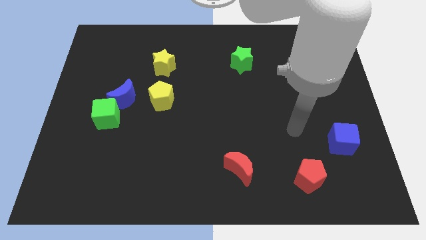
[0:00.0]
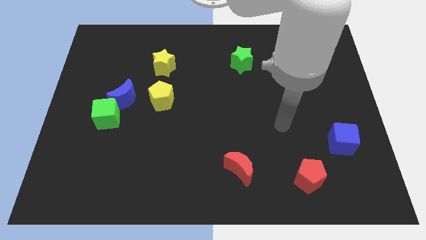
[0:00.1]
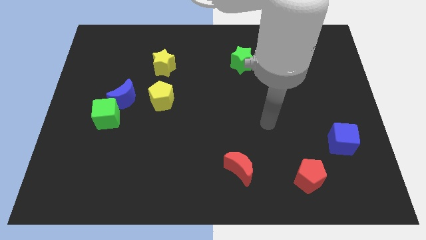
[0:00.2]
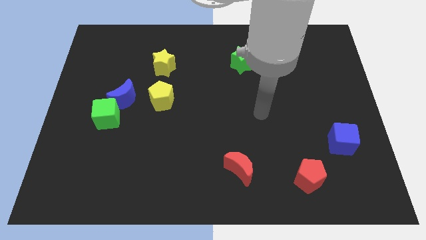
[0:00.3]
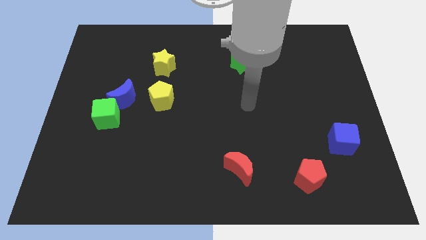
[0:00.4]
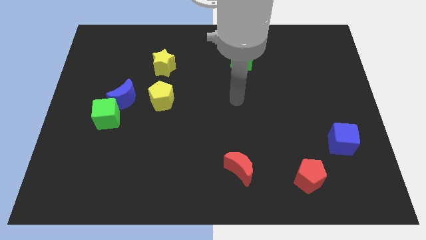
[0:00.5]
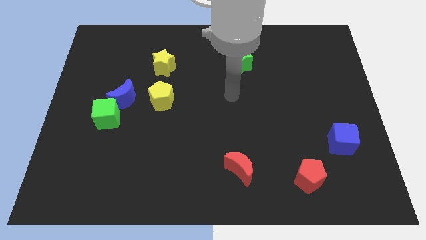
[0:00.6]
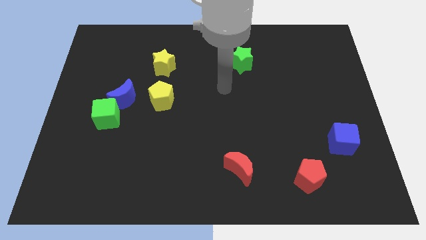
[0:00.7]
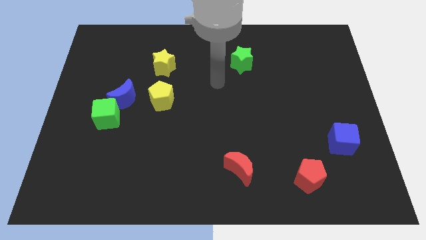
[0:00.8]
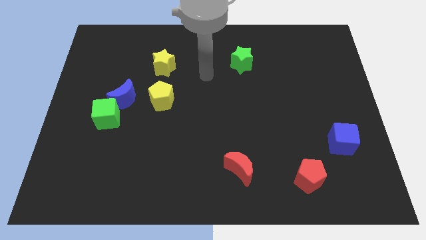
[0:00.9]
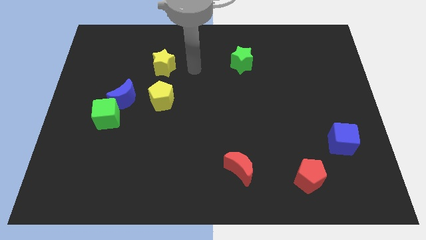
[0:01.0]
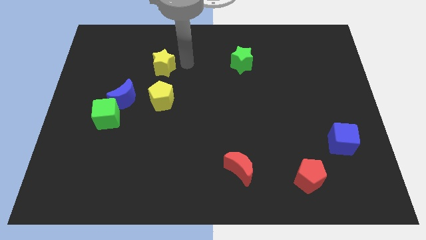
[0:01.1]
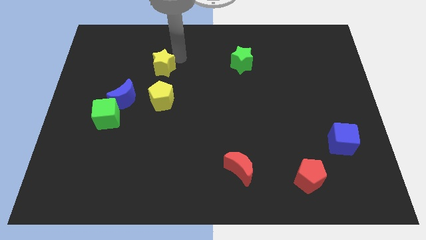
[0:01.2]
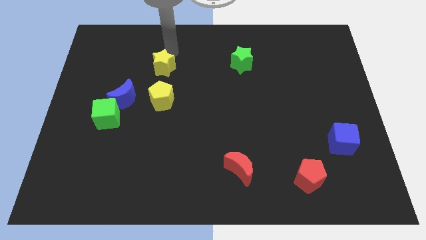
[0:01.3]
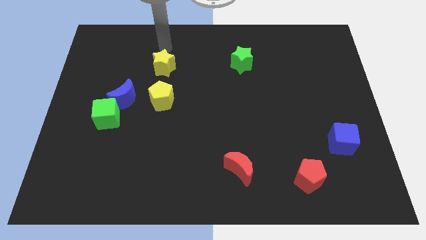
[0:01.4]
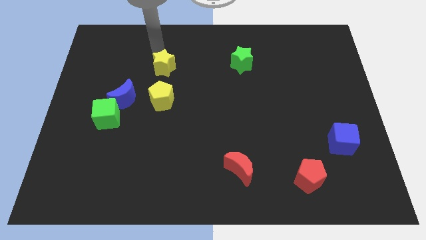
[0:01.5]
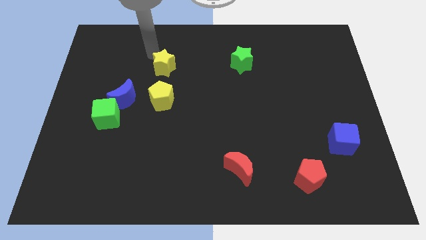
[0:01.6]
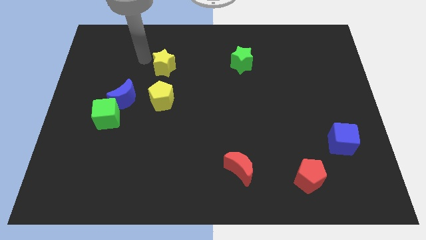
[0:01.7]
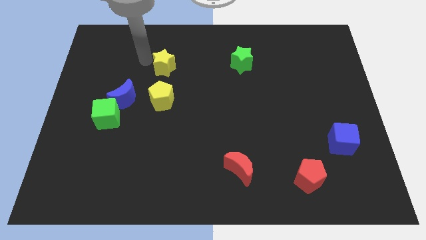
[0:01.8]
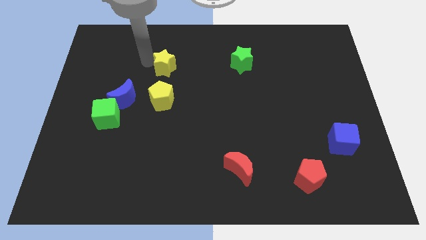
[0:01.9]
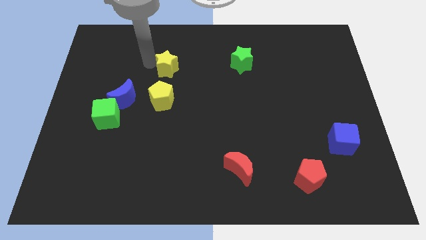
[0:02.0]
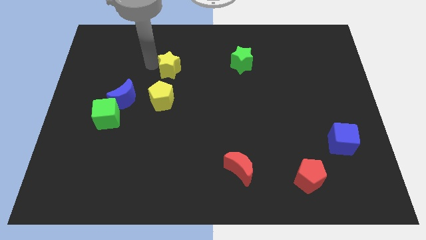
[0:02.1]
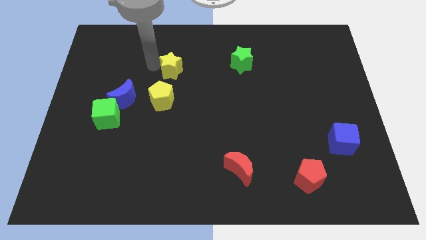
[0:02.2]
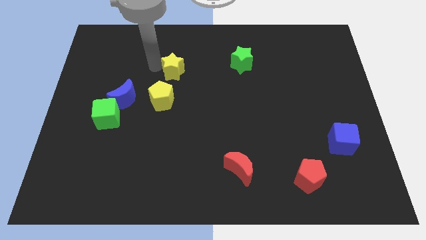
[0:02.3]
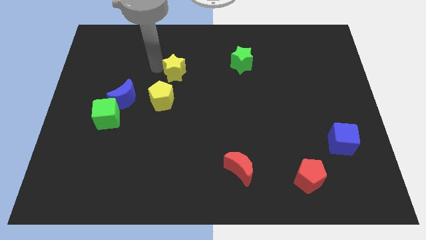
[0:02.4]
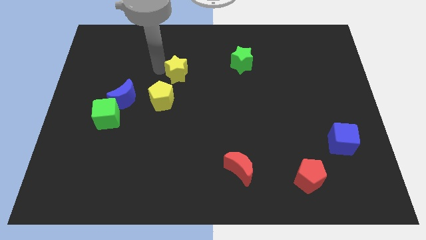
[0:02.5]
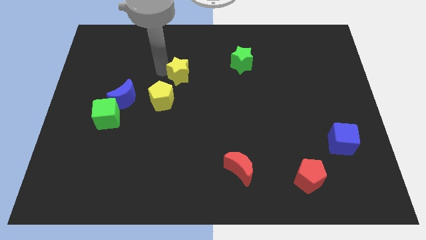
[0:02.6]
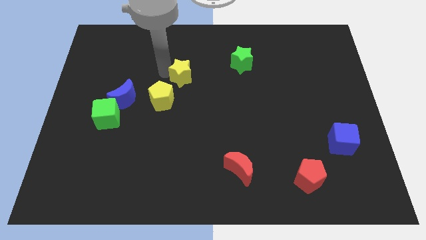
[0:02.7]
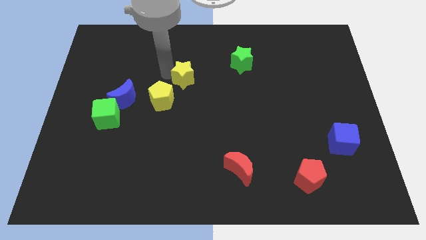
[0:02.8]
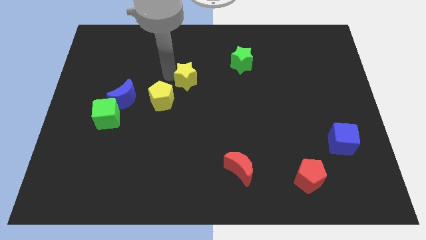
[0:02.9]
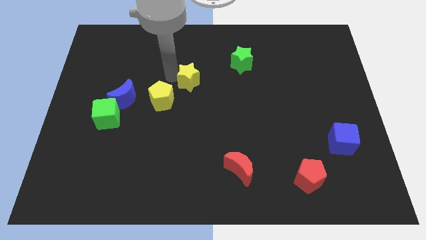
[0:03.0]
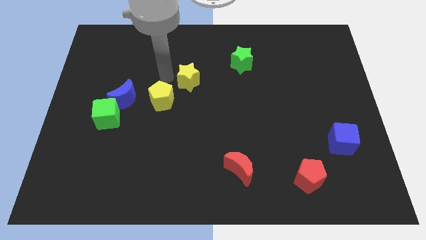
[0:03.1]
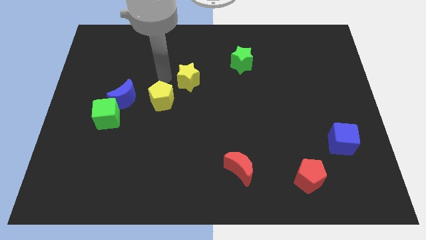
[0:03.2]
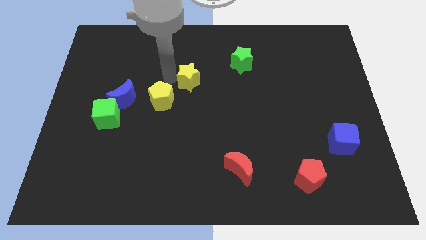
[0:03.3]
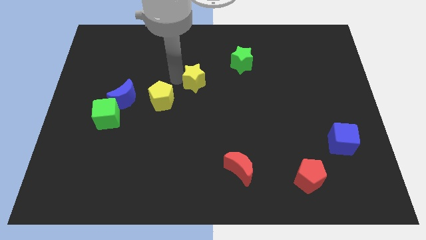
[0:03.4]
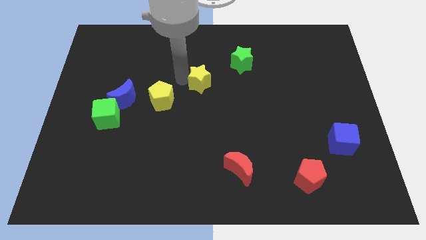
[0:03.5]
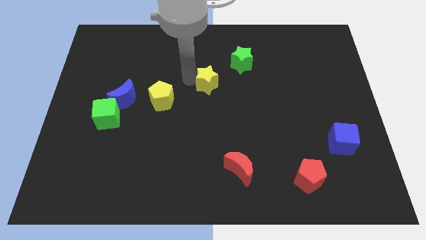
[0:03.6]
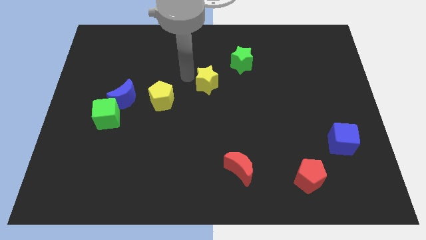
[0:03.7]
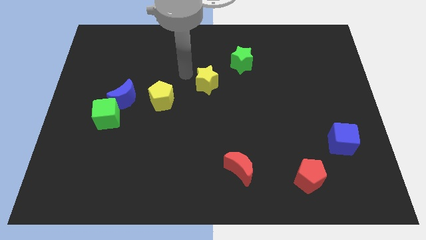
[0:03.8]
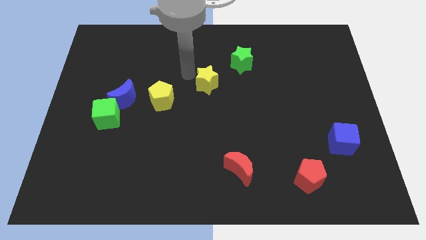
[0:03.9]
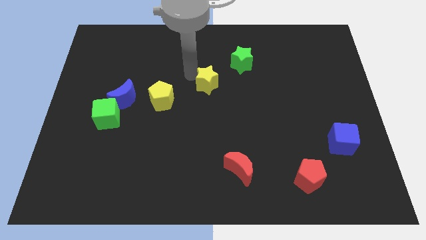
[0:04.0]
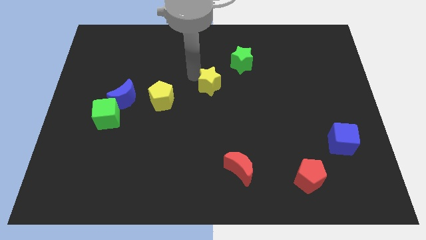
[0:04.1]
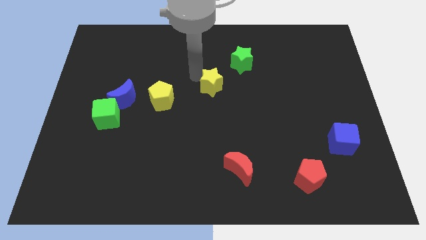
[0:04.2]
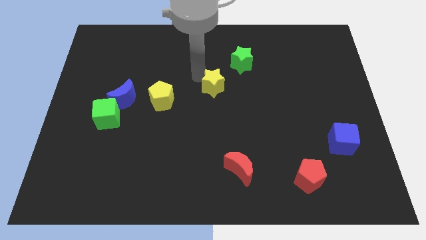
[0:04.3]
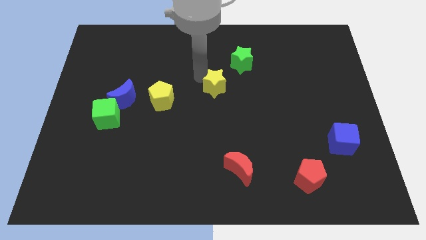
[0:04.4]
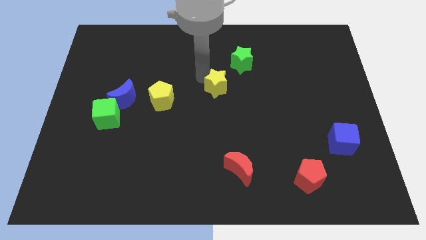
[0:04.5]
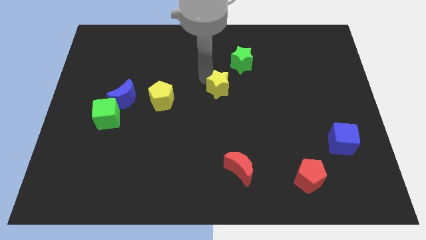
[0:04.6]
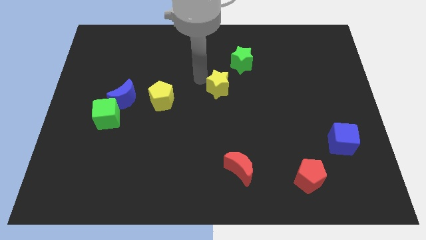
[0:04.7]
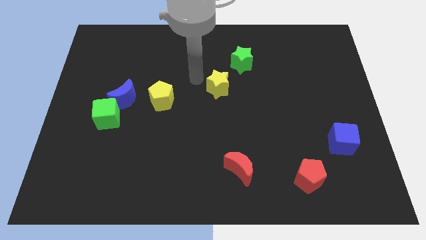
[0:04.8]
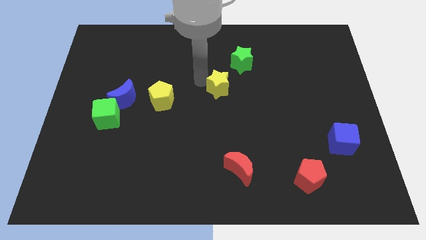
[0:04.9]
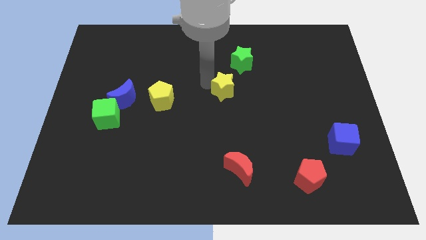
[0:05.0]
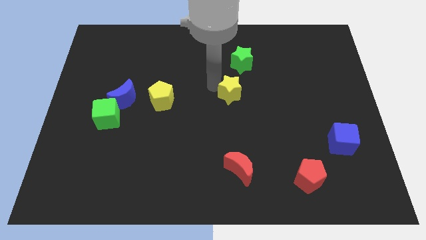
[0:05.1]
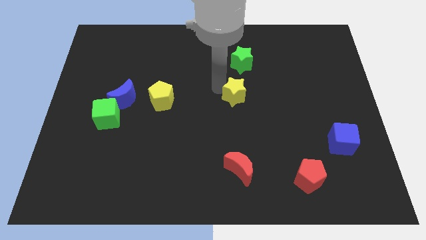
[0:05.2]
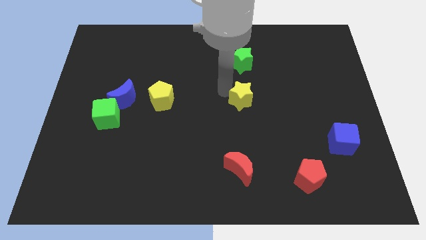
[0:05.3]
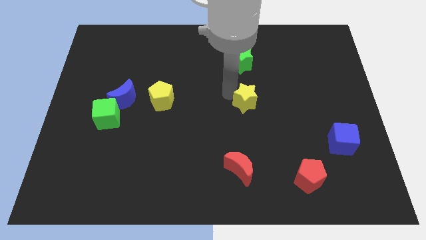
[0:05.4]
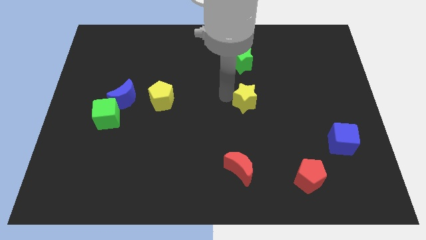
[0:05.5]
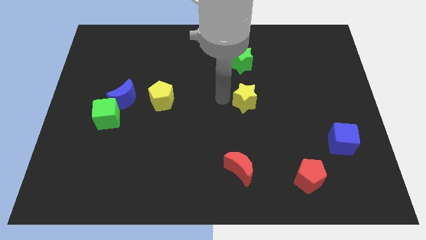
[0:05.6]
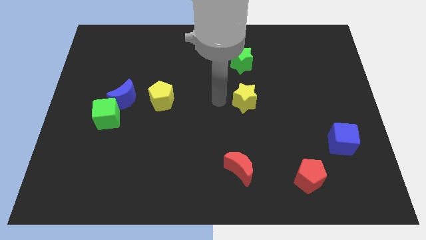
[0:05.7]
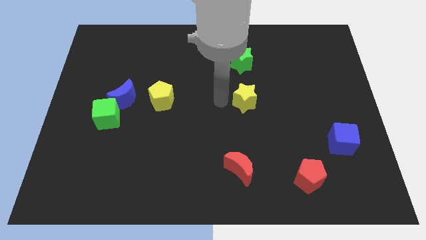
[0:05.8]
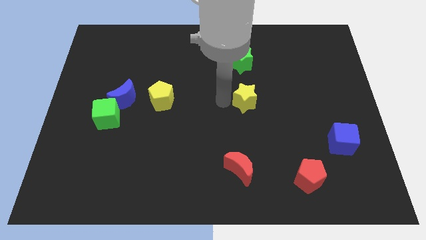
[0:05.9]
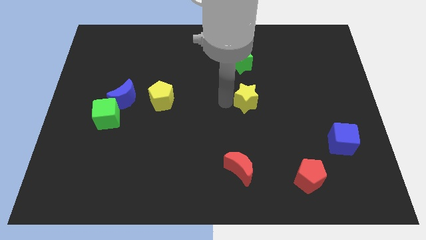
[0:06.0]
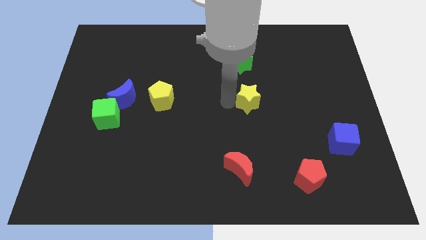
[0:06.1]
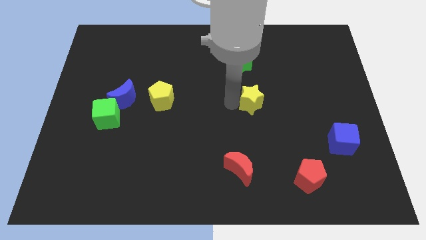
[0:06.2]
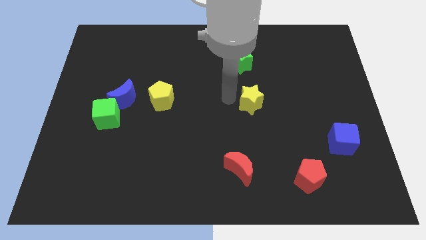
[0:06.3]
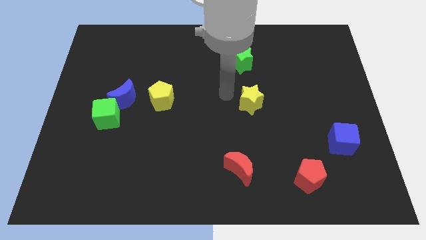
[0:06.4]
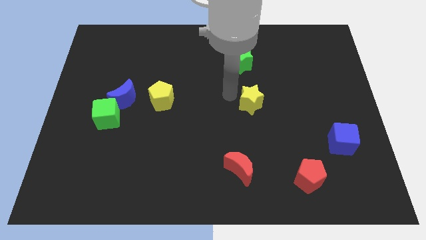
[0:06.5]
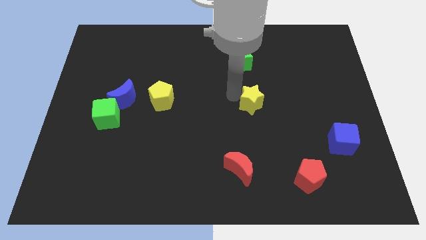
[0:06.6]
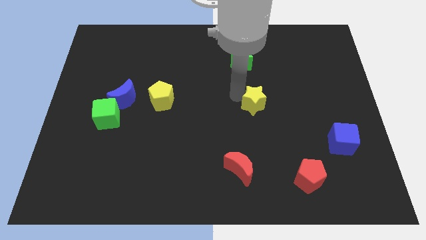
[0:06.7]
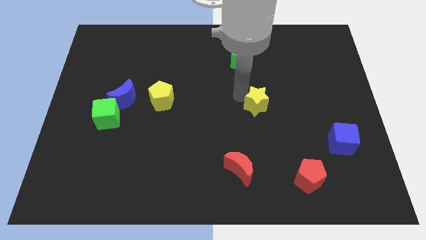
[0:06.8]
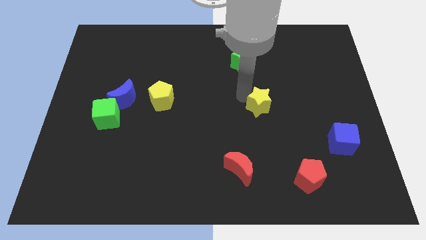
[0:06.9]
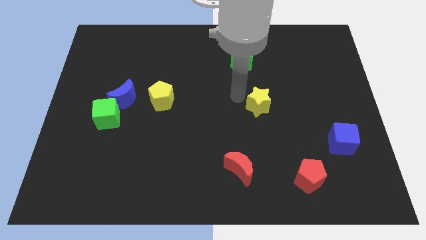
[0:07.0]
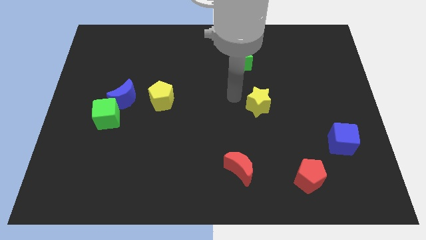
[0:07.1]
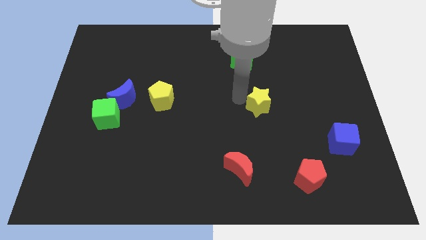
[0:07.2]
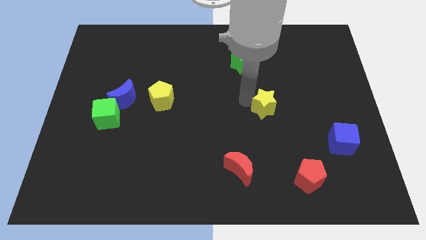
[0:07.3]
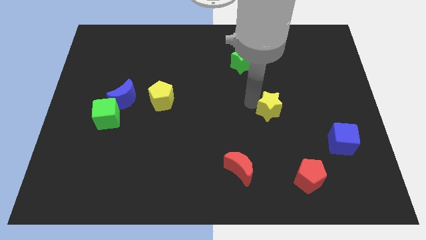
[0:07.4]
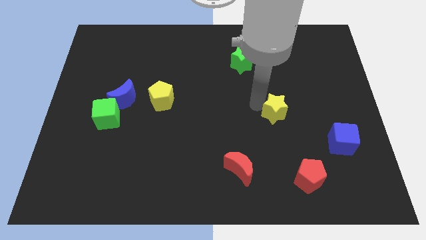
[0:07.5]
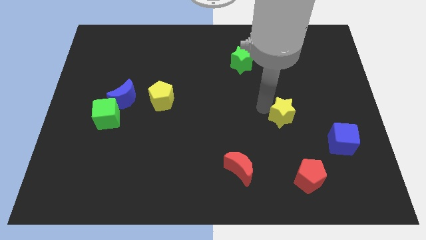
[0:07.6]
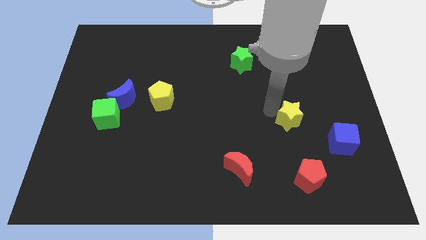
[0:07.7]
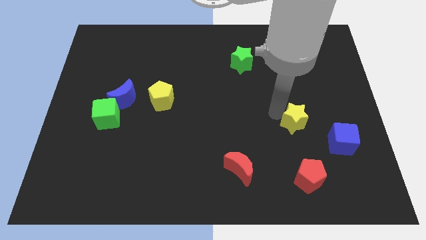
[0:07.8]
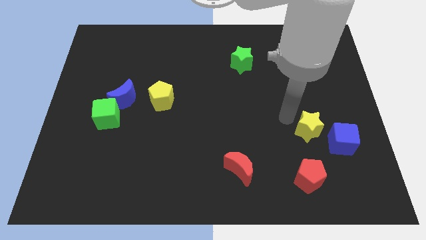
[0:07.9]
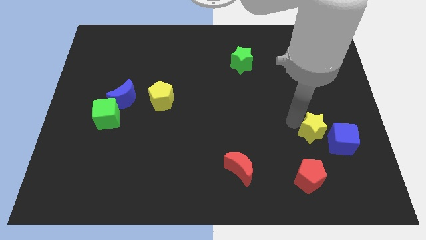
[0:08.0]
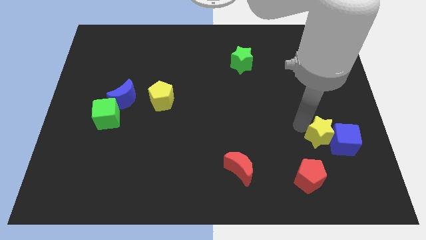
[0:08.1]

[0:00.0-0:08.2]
push the yellow star close to the blue cube
